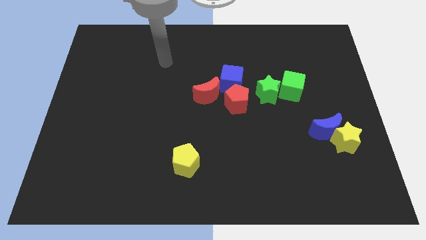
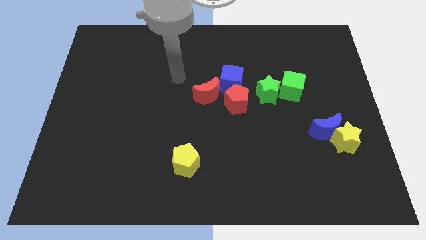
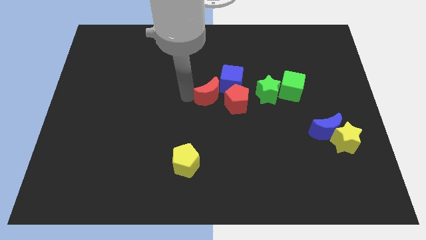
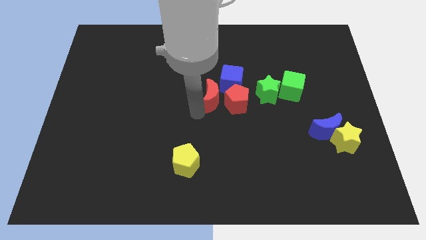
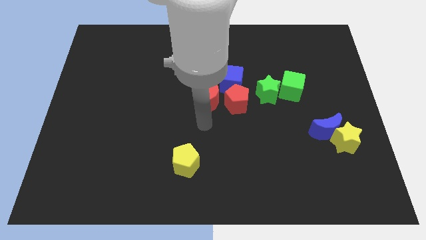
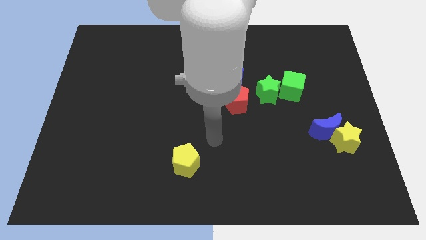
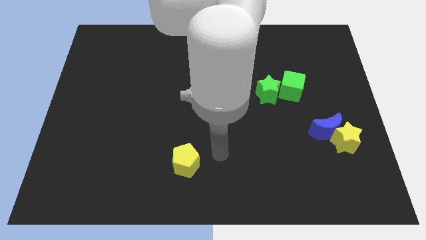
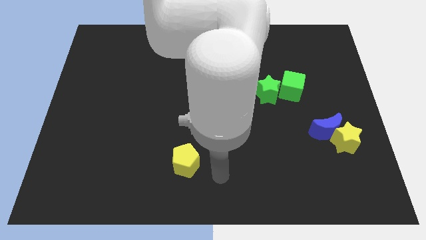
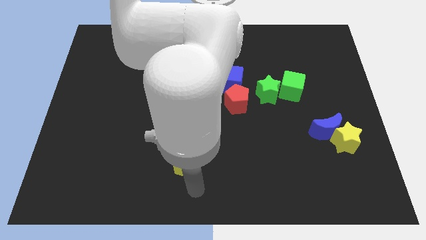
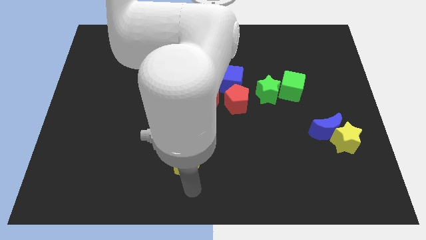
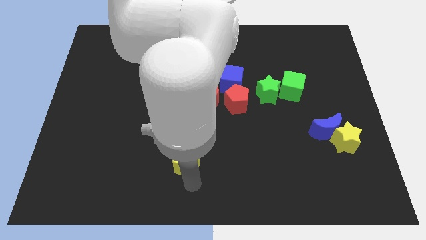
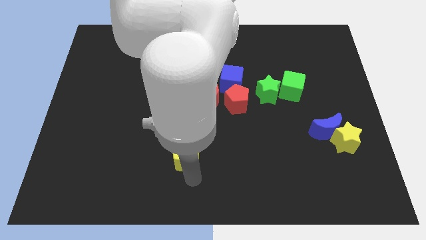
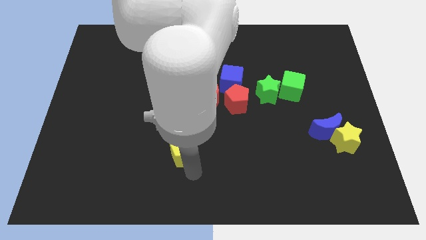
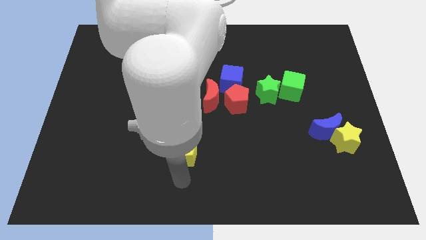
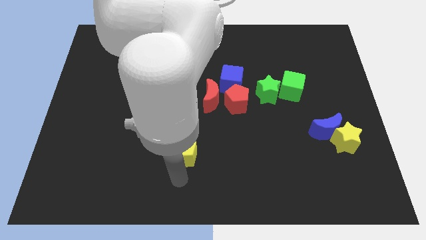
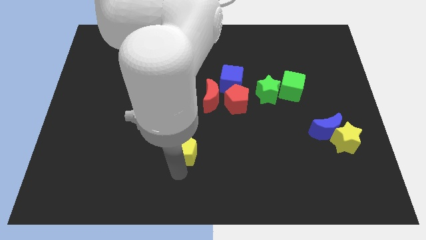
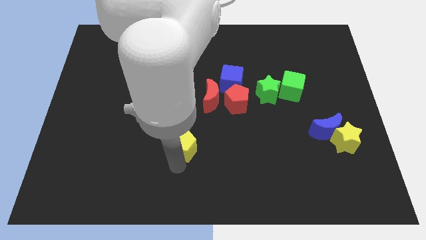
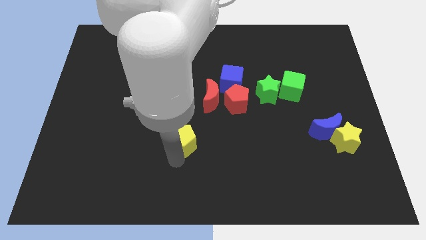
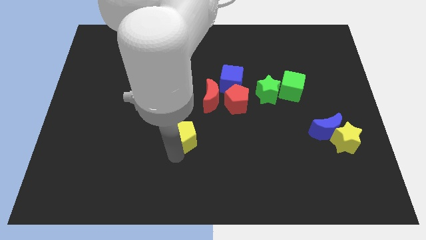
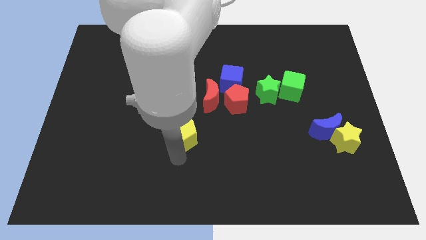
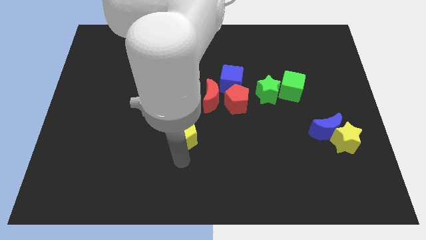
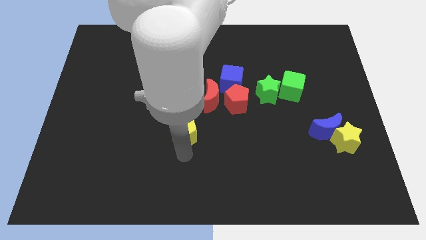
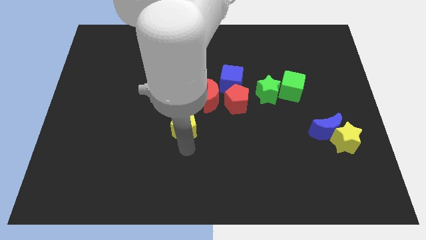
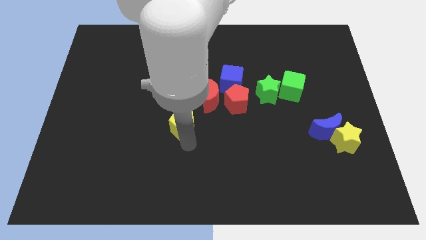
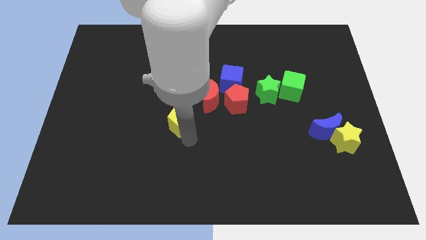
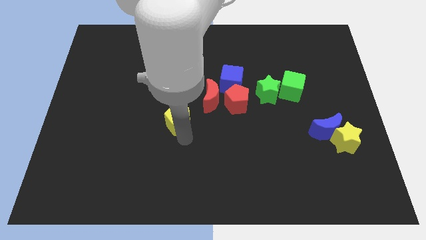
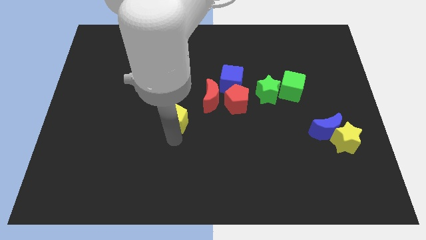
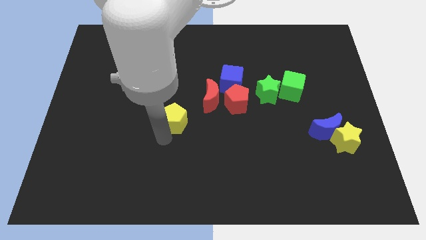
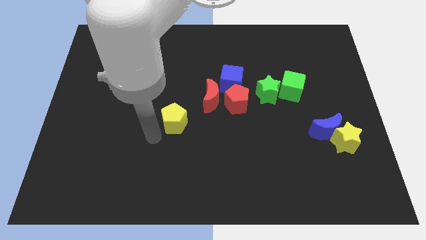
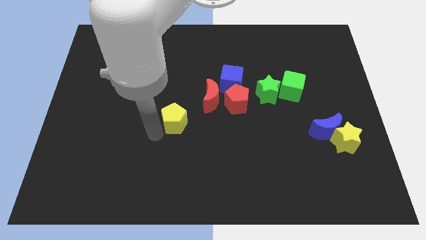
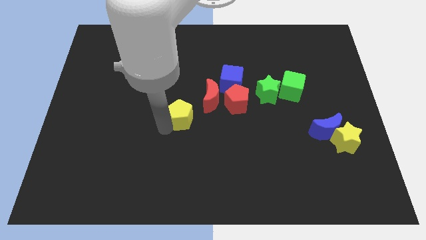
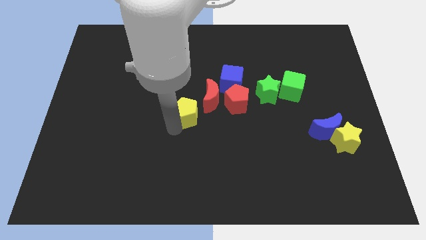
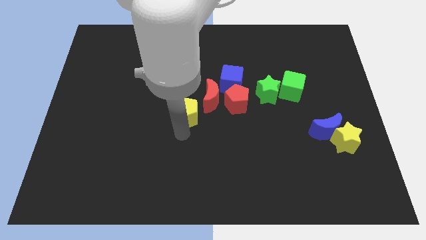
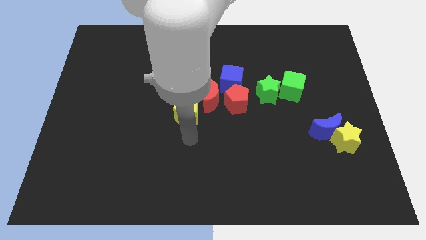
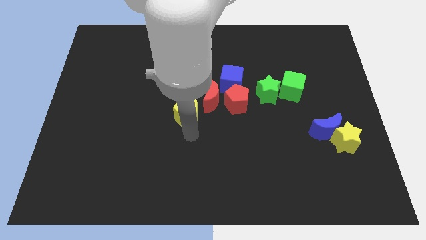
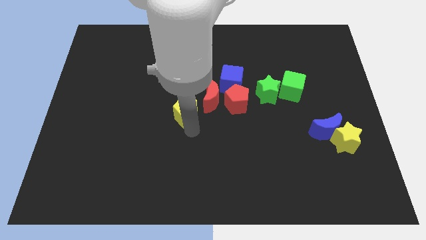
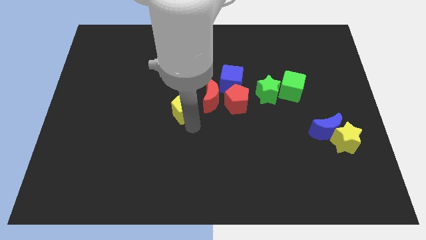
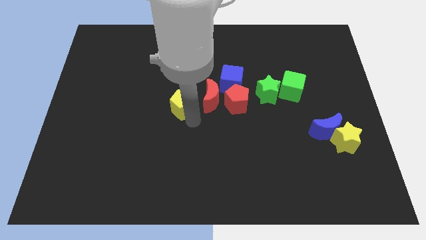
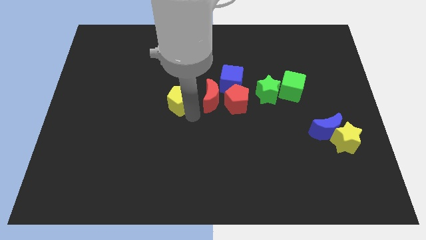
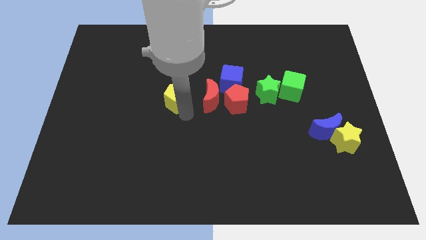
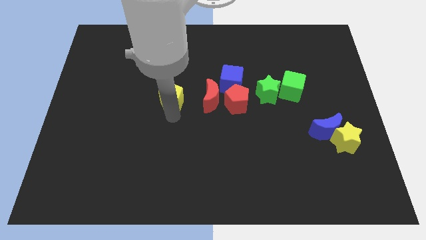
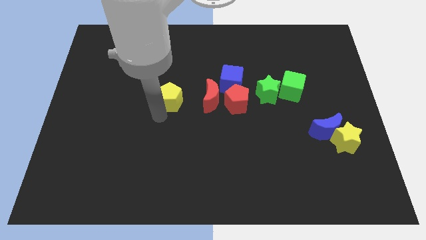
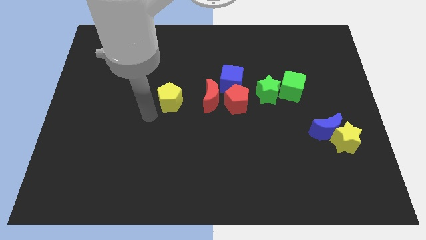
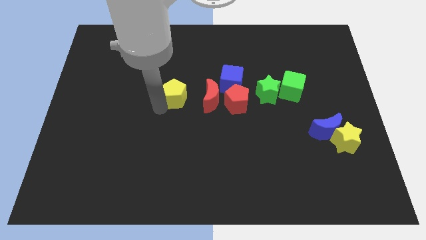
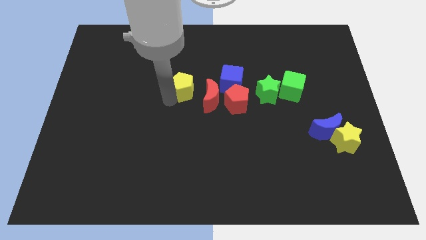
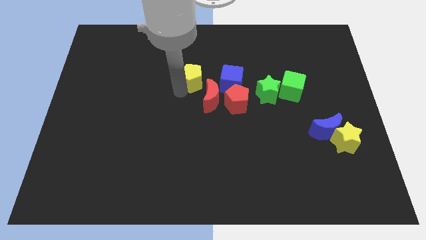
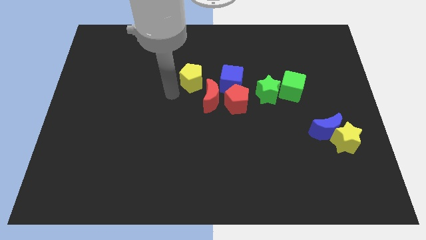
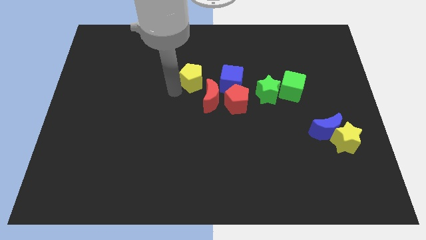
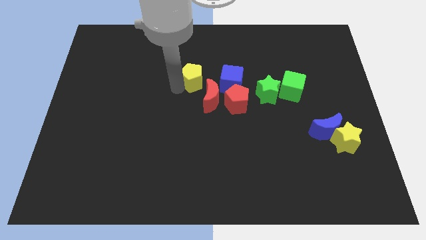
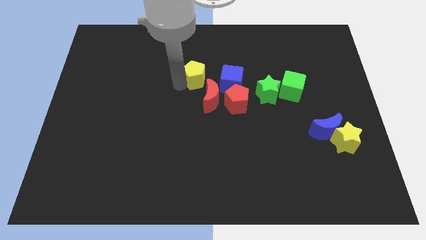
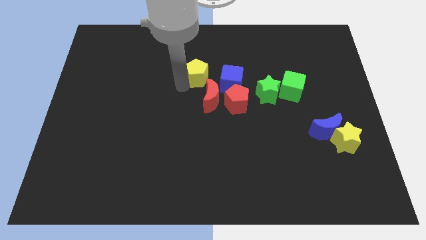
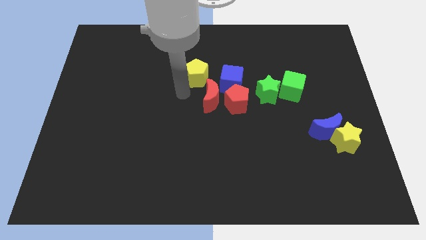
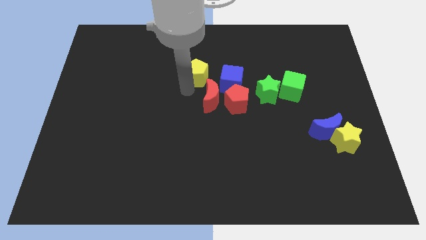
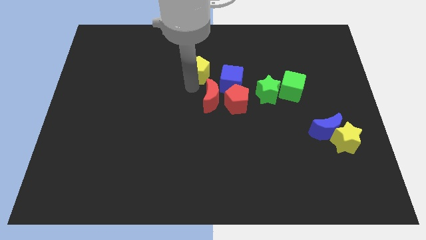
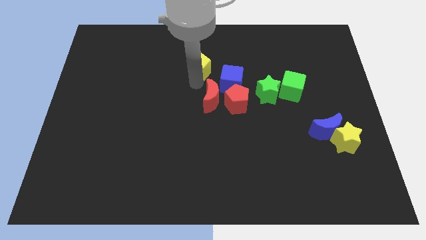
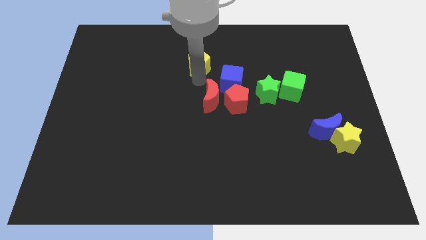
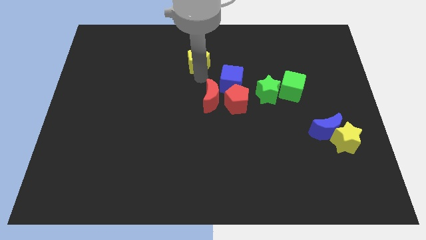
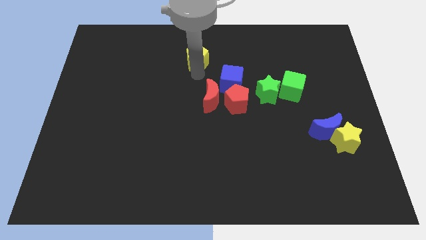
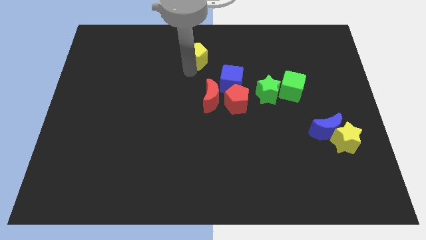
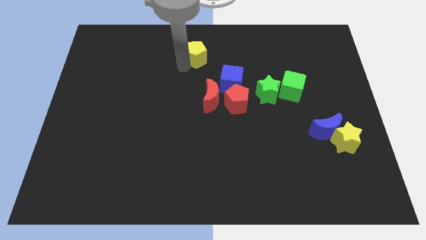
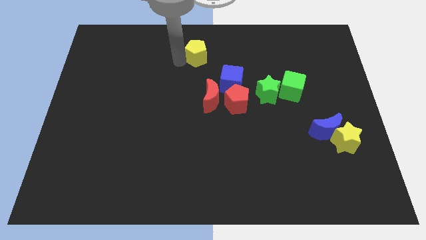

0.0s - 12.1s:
slide the yellow pentagon to the top

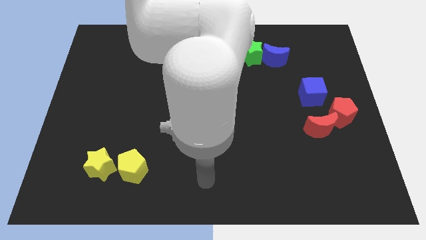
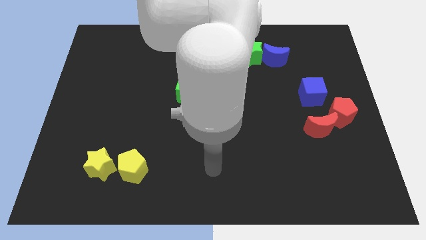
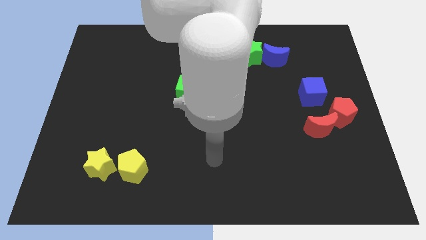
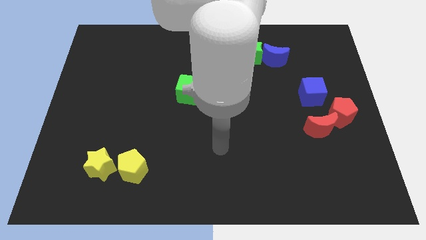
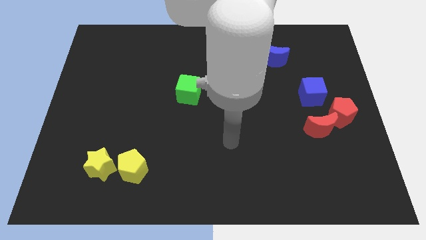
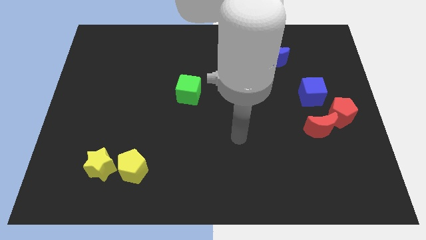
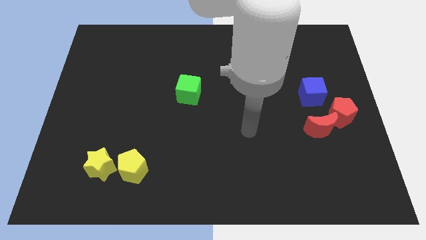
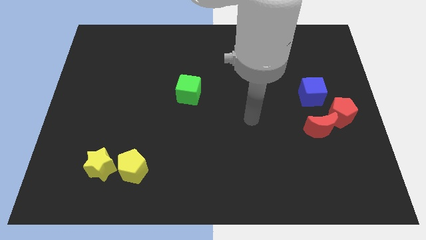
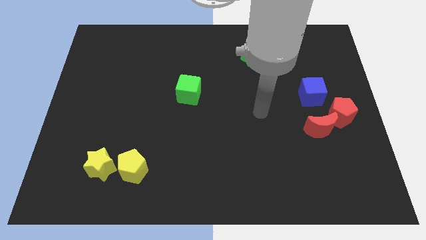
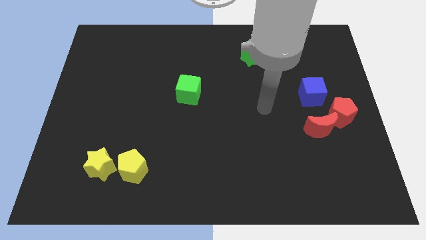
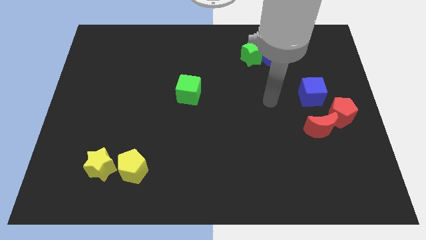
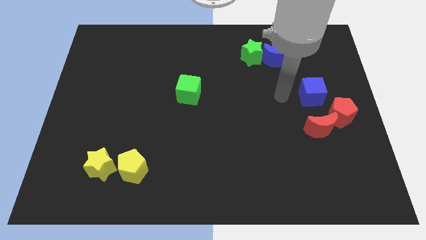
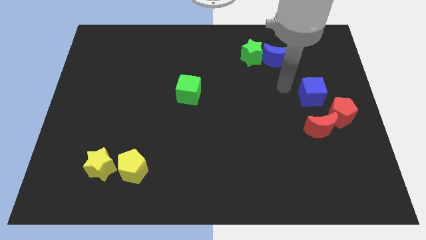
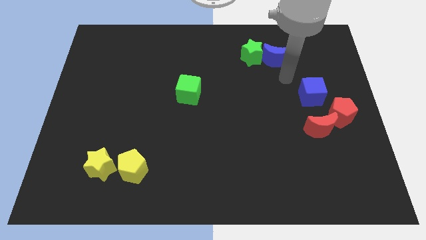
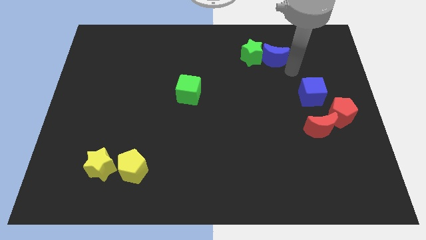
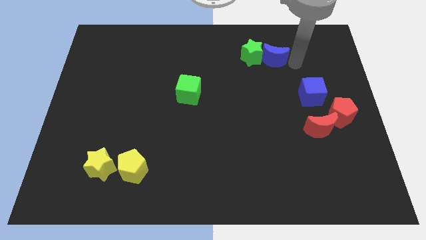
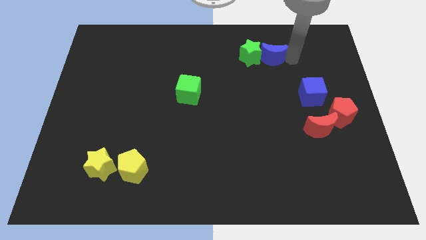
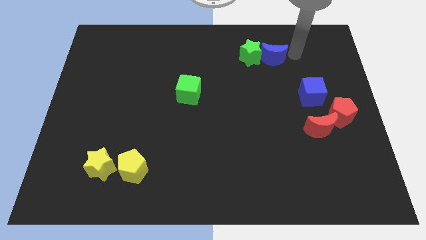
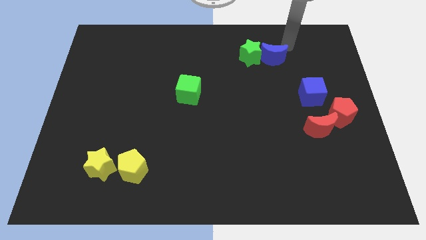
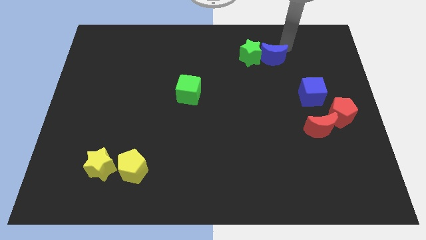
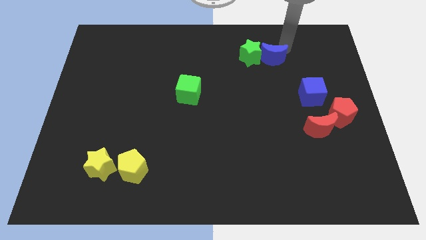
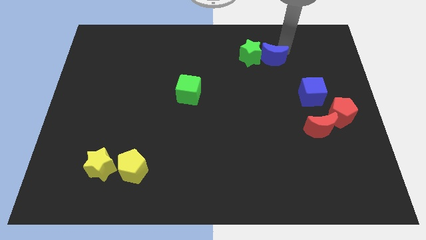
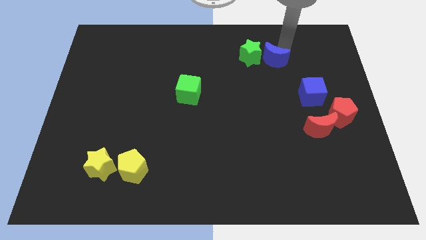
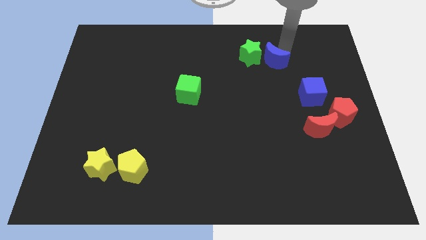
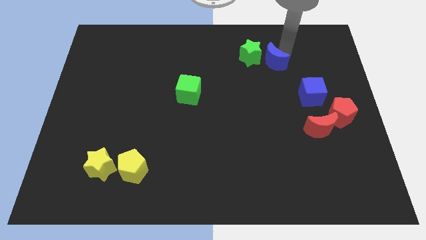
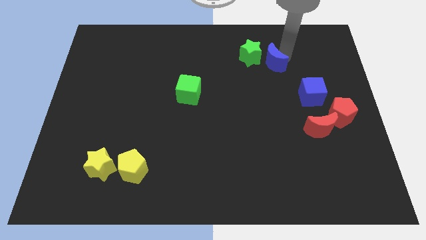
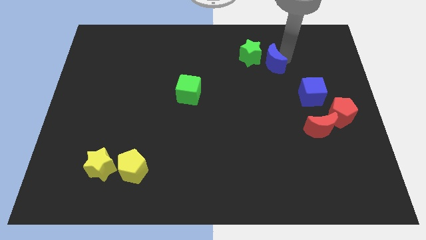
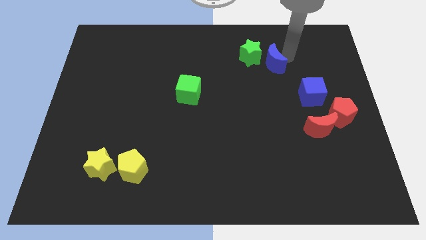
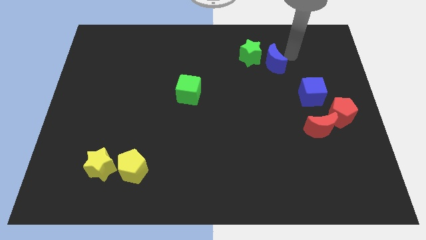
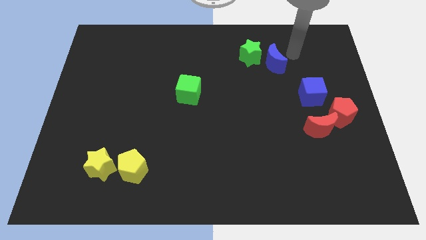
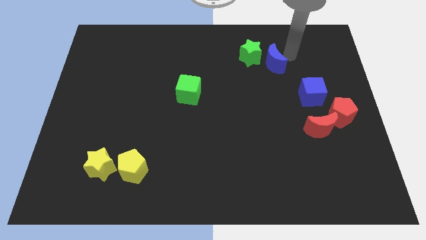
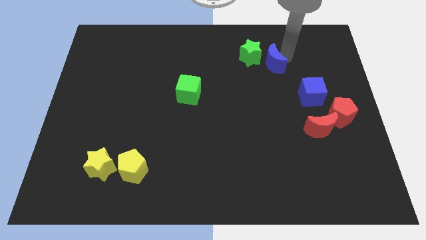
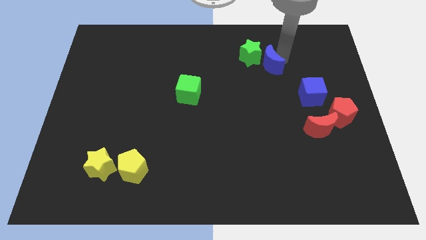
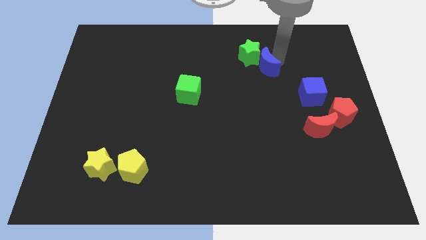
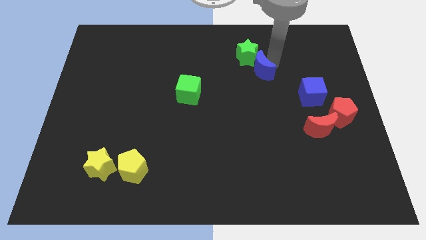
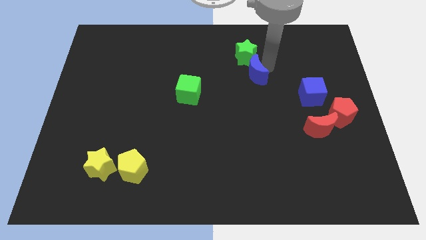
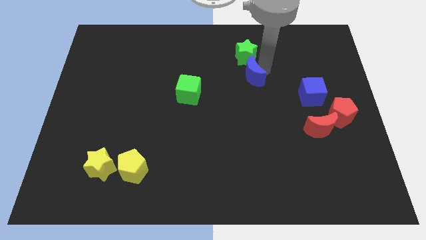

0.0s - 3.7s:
move the blue moon to the center
